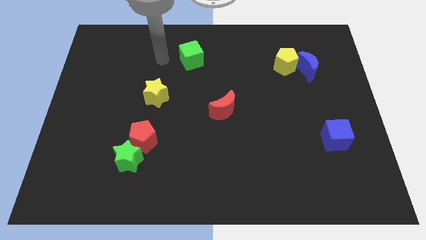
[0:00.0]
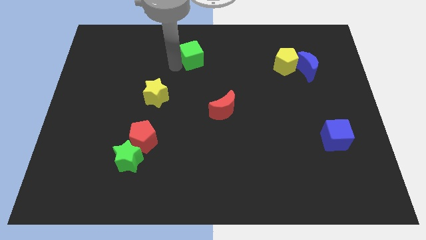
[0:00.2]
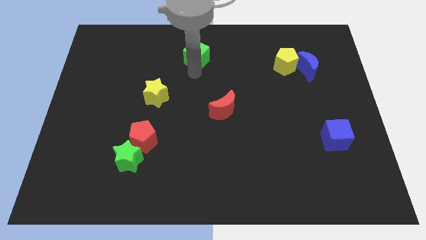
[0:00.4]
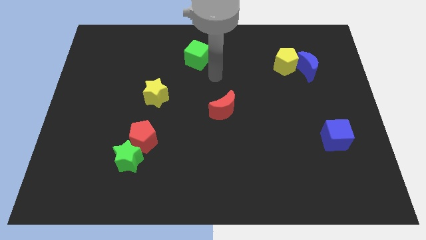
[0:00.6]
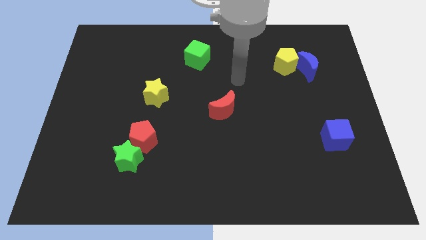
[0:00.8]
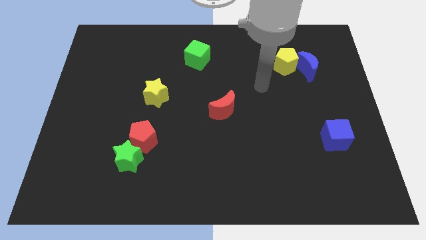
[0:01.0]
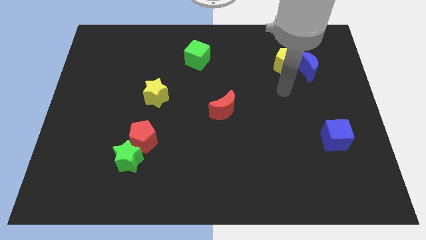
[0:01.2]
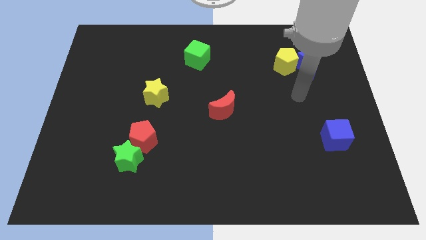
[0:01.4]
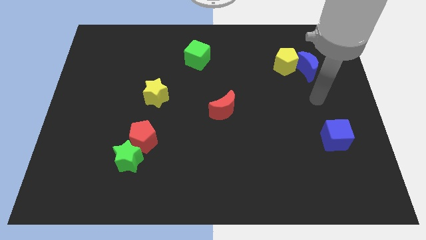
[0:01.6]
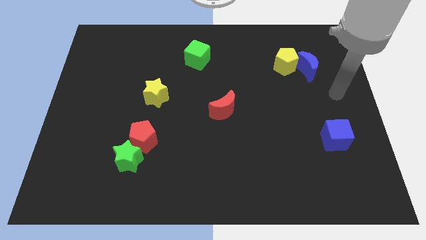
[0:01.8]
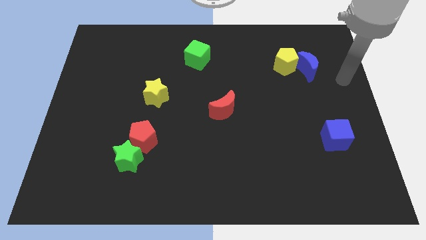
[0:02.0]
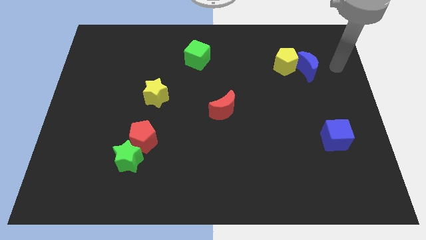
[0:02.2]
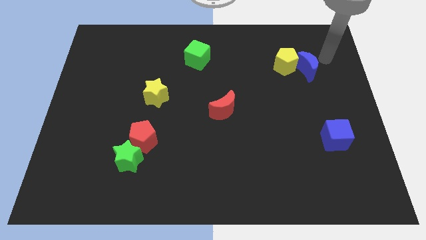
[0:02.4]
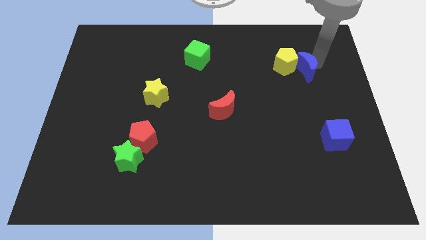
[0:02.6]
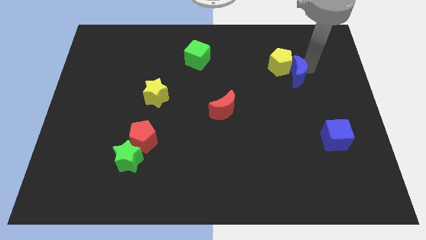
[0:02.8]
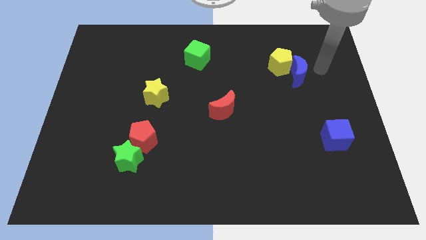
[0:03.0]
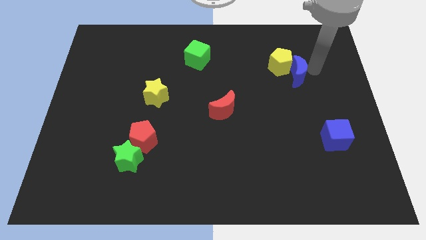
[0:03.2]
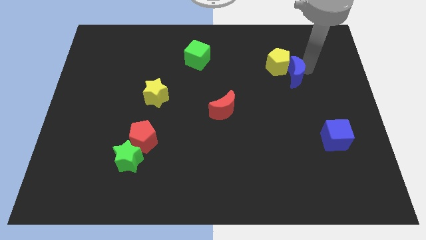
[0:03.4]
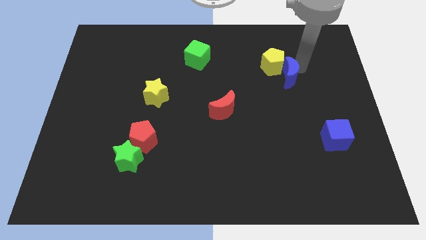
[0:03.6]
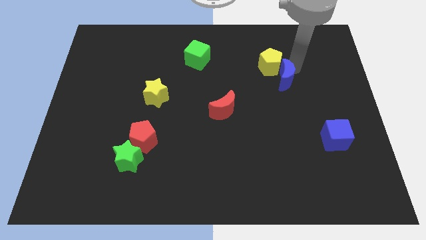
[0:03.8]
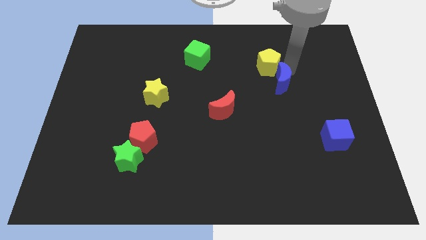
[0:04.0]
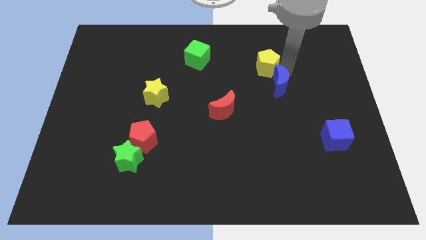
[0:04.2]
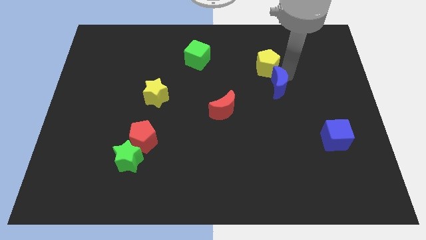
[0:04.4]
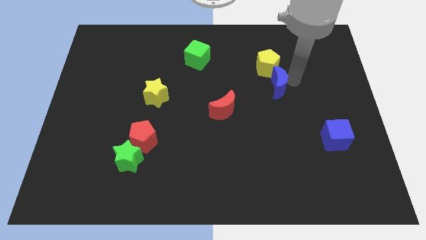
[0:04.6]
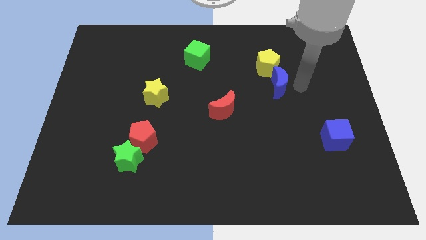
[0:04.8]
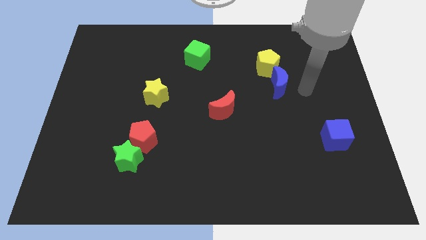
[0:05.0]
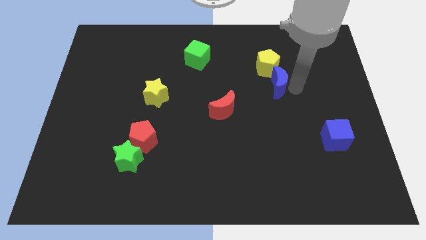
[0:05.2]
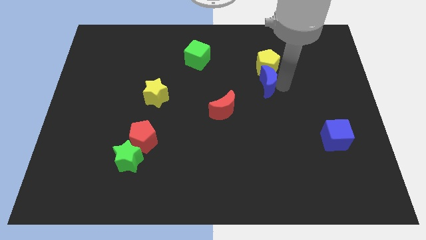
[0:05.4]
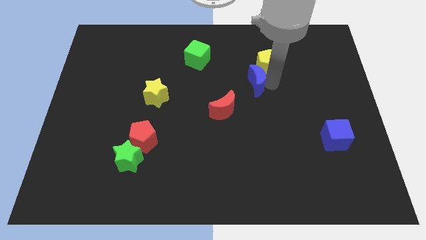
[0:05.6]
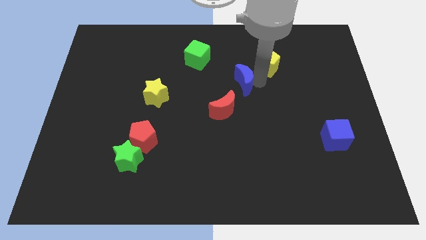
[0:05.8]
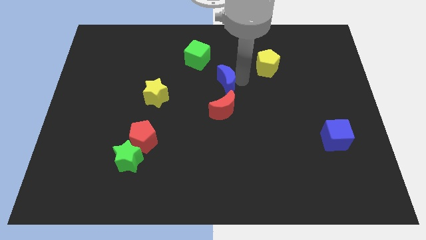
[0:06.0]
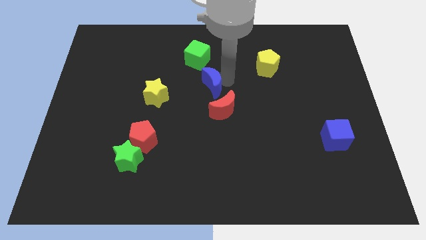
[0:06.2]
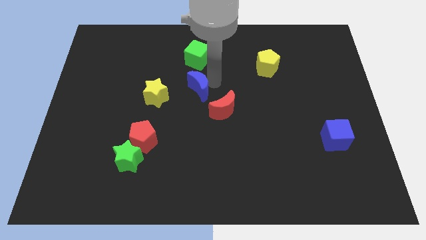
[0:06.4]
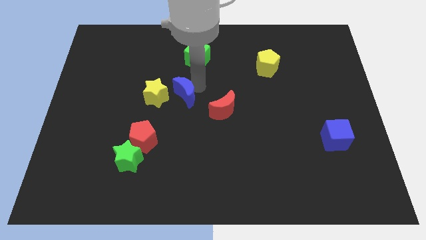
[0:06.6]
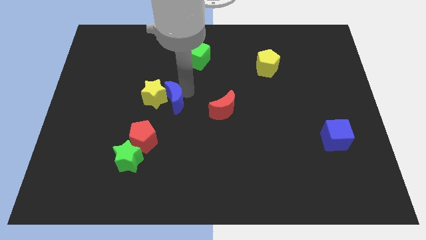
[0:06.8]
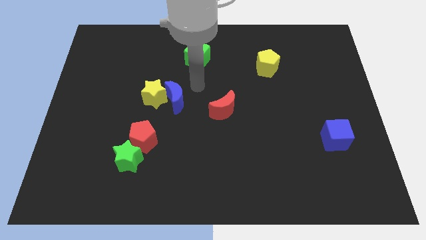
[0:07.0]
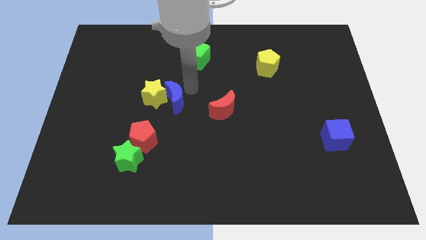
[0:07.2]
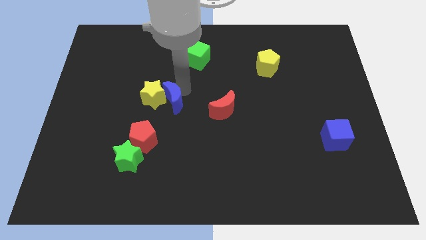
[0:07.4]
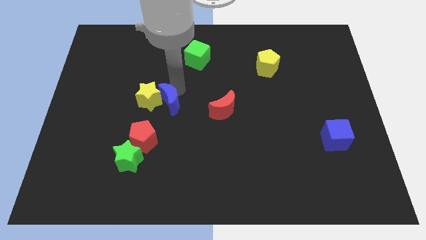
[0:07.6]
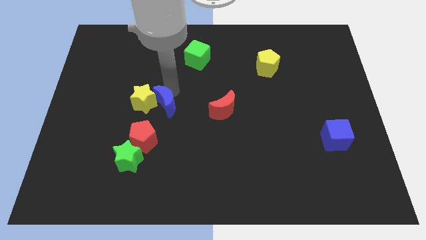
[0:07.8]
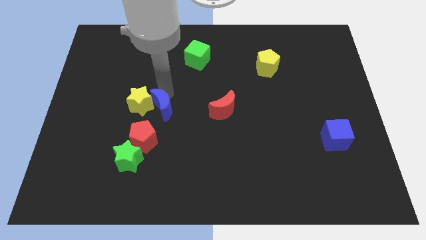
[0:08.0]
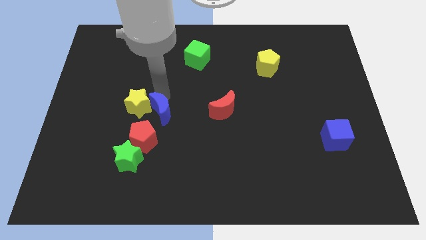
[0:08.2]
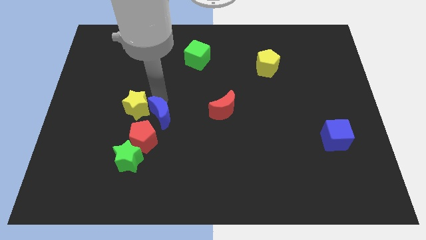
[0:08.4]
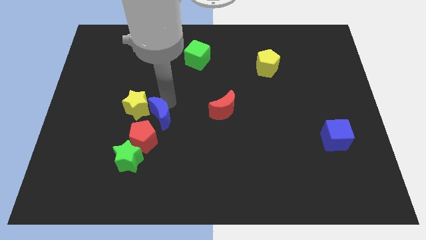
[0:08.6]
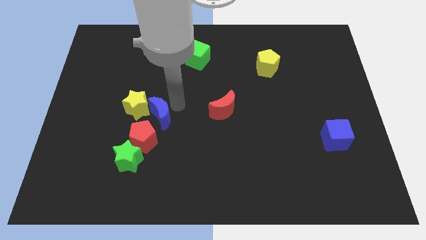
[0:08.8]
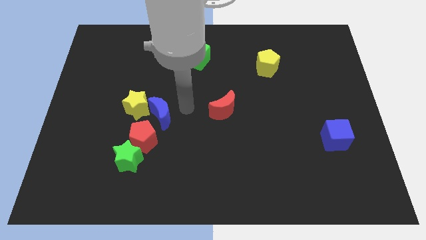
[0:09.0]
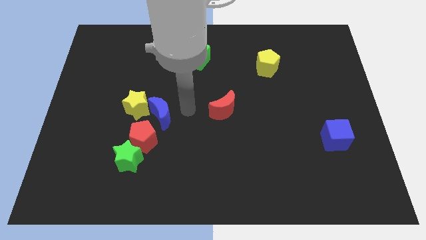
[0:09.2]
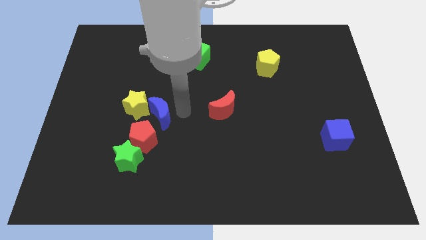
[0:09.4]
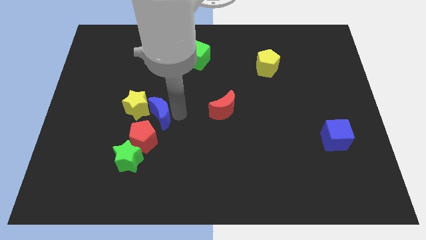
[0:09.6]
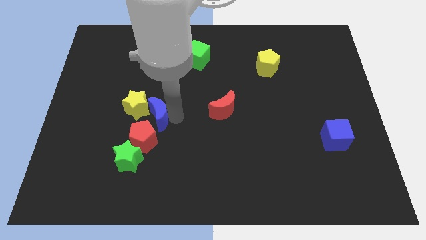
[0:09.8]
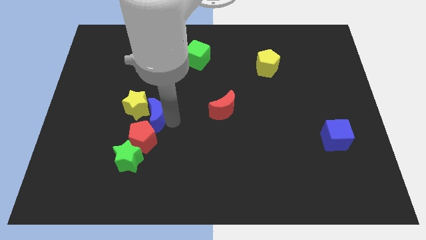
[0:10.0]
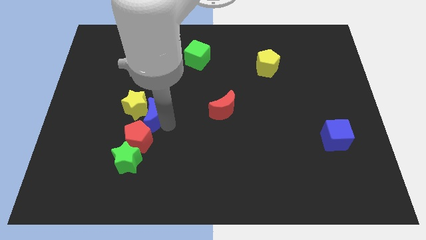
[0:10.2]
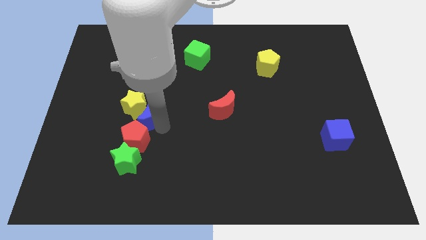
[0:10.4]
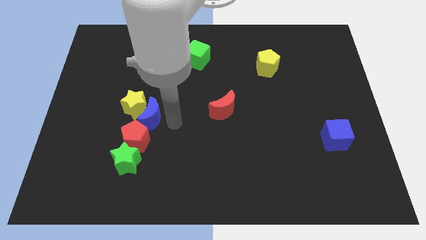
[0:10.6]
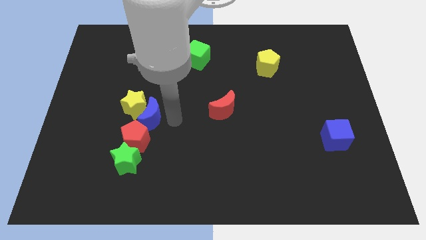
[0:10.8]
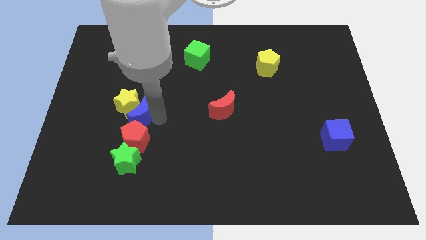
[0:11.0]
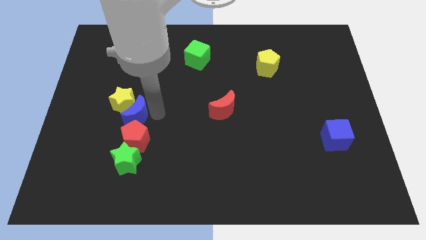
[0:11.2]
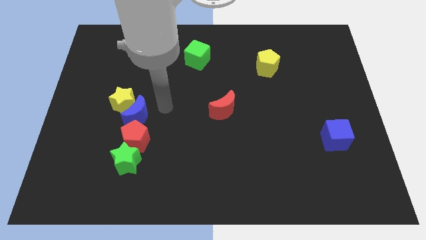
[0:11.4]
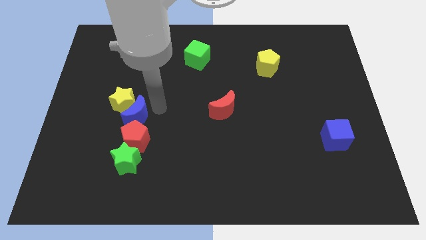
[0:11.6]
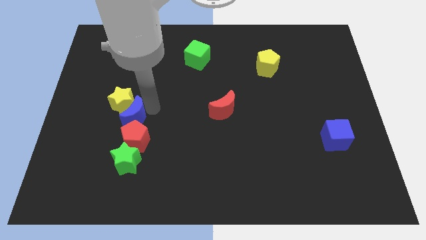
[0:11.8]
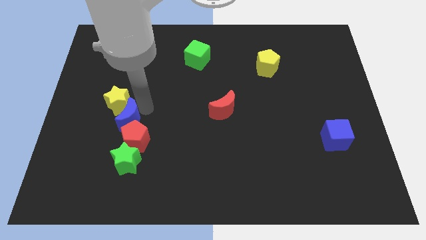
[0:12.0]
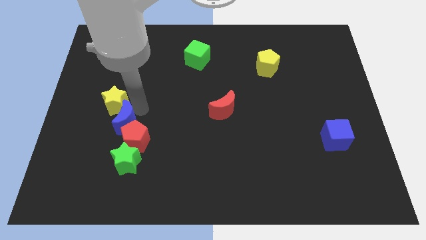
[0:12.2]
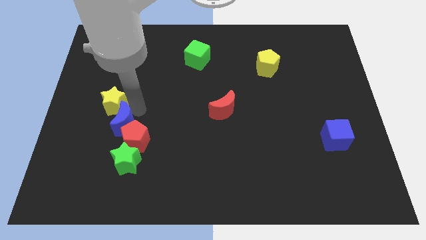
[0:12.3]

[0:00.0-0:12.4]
slide the blue moon left of the red pentagon

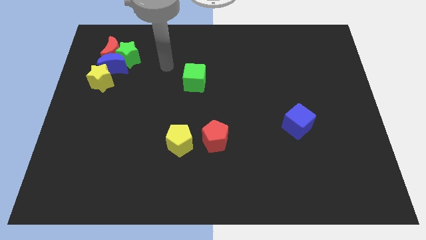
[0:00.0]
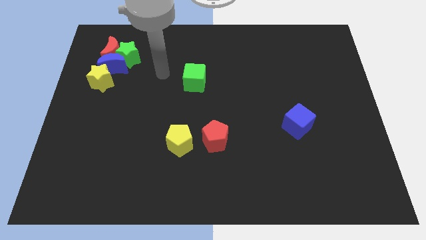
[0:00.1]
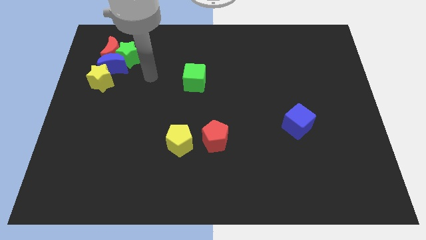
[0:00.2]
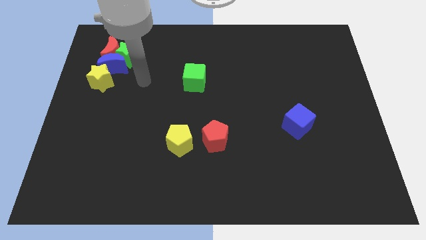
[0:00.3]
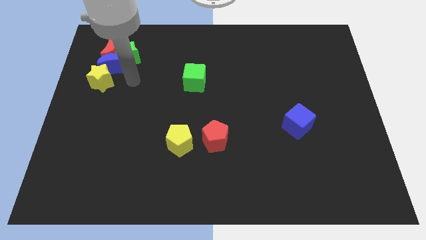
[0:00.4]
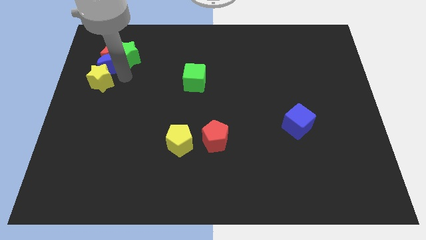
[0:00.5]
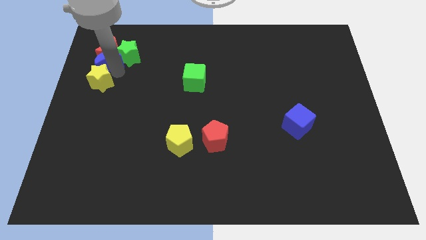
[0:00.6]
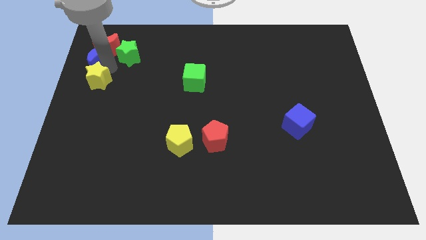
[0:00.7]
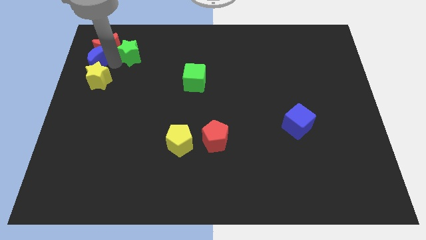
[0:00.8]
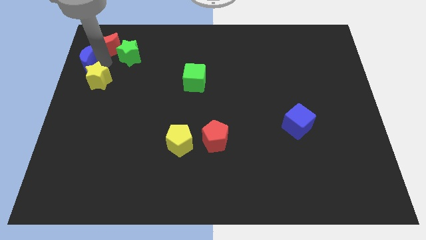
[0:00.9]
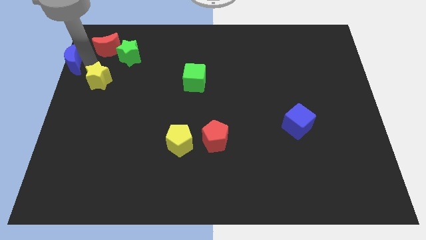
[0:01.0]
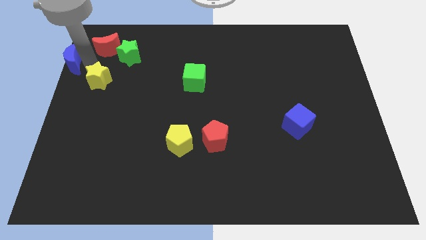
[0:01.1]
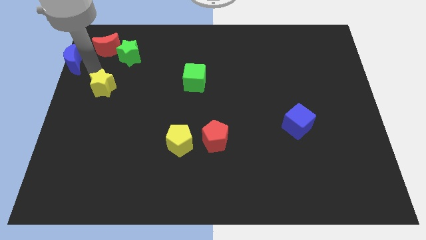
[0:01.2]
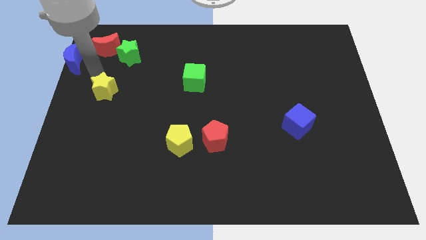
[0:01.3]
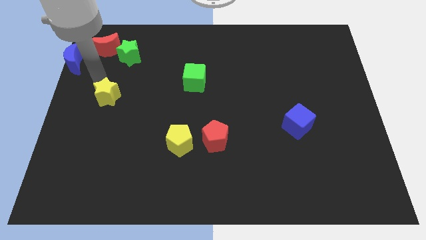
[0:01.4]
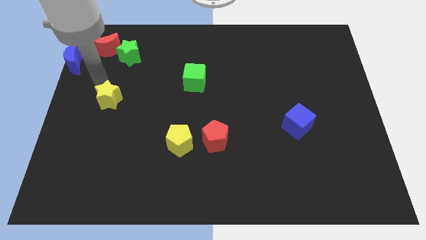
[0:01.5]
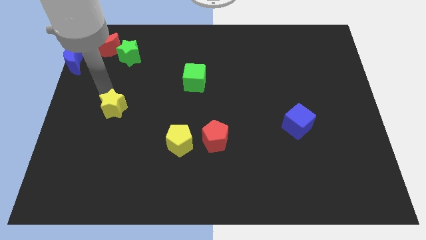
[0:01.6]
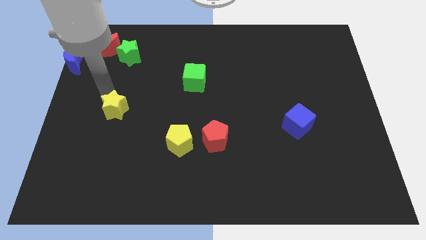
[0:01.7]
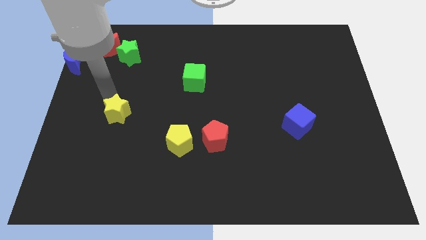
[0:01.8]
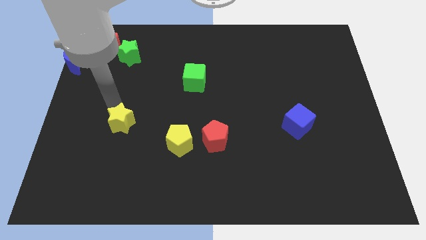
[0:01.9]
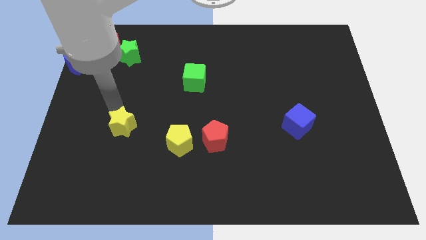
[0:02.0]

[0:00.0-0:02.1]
slide the yellow star to the left side of the yellow pentagon
